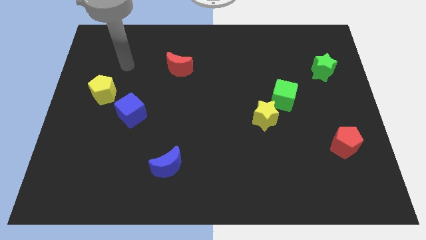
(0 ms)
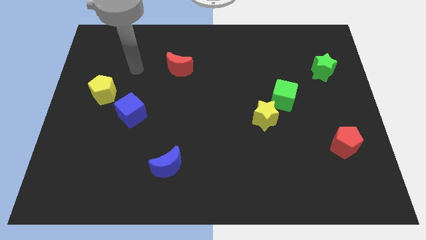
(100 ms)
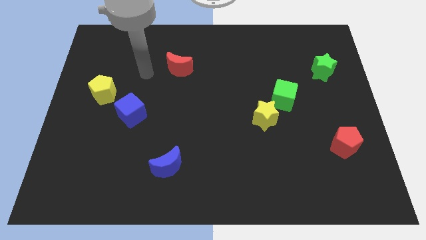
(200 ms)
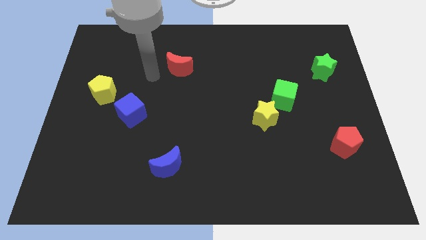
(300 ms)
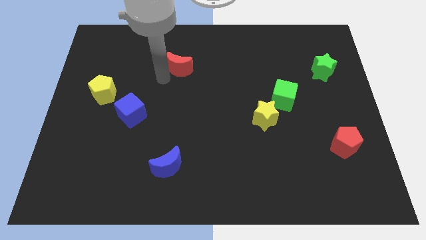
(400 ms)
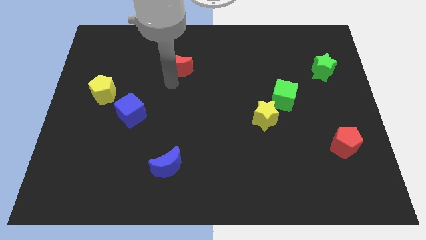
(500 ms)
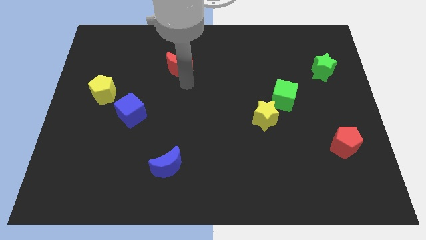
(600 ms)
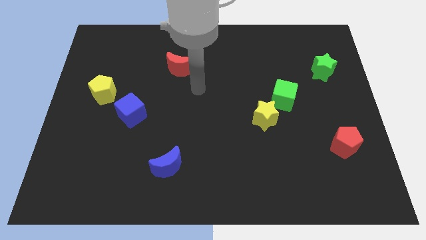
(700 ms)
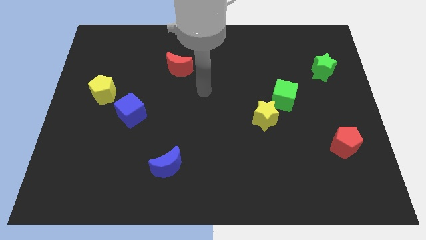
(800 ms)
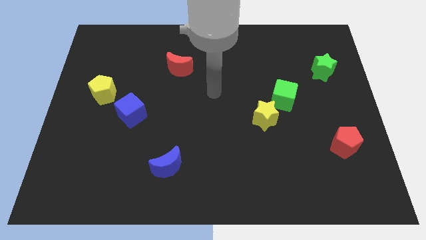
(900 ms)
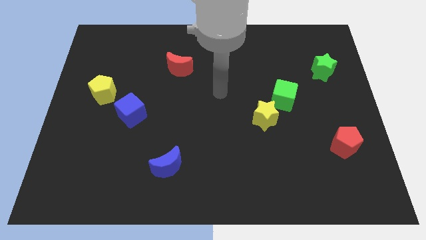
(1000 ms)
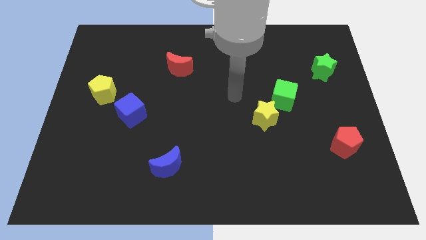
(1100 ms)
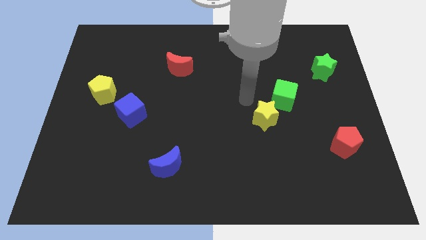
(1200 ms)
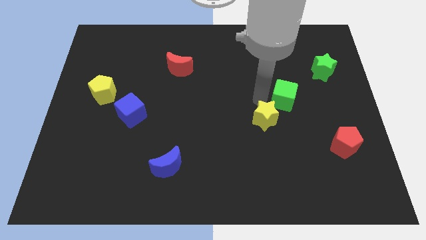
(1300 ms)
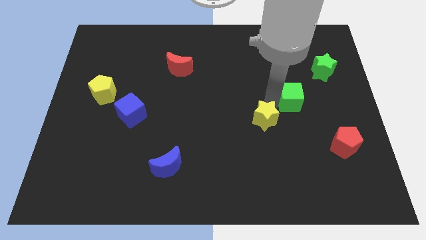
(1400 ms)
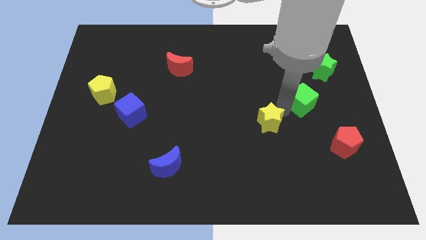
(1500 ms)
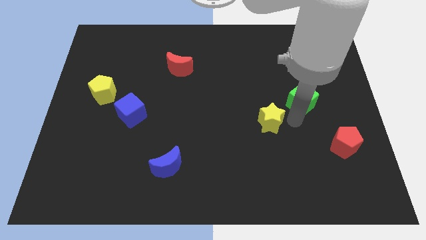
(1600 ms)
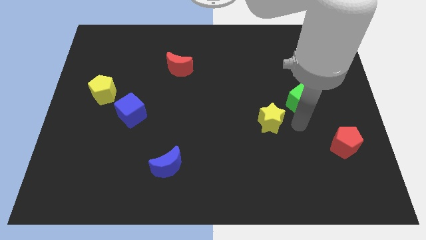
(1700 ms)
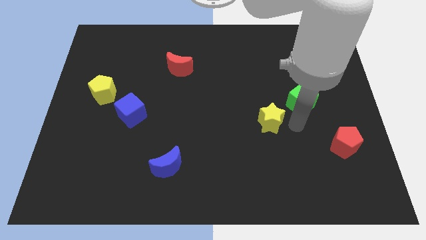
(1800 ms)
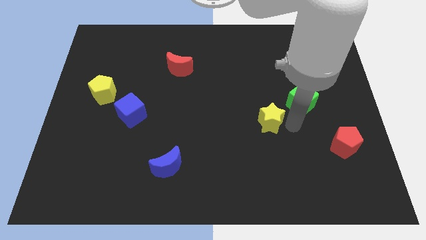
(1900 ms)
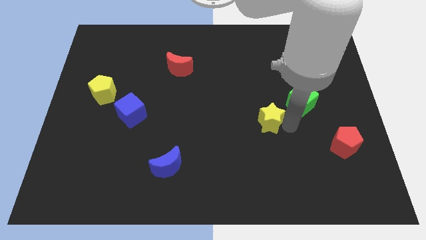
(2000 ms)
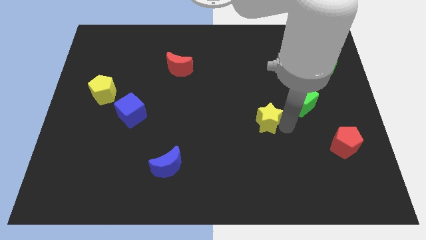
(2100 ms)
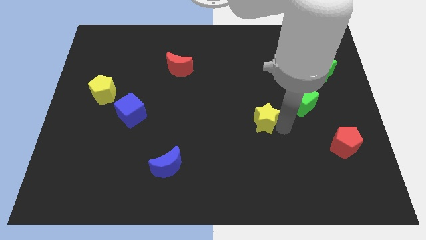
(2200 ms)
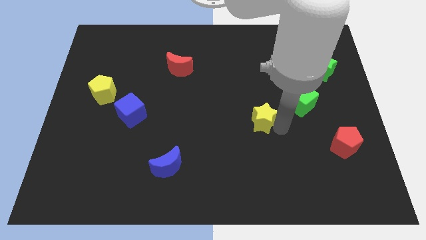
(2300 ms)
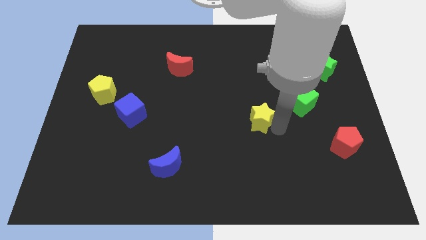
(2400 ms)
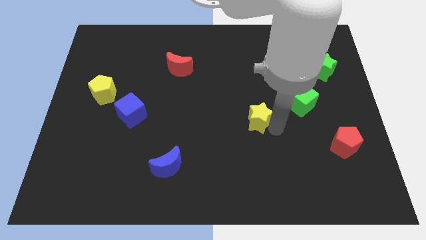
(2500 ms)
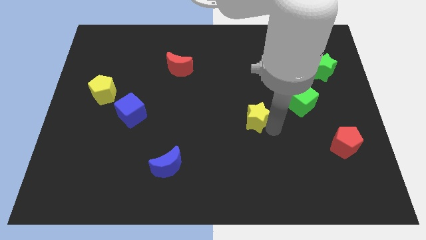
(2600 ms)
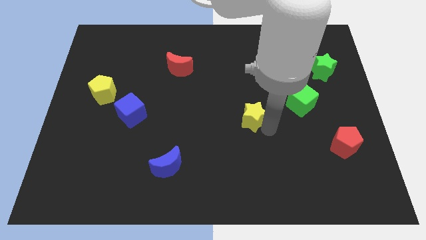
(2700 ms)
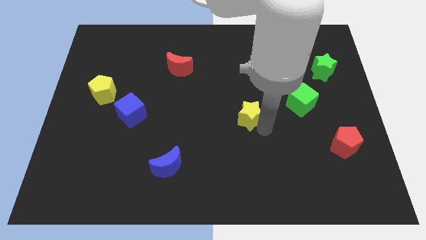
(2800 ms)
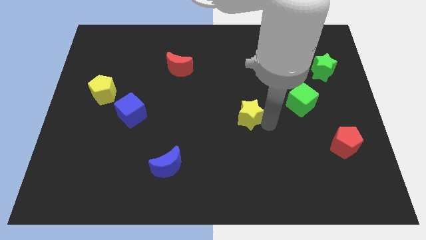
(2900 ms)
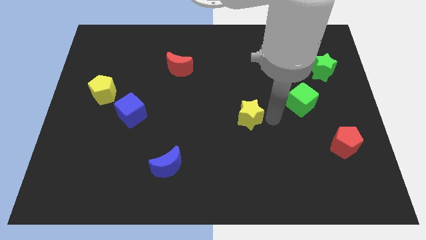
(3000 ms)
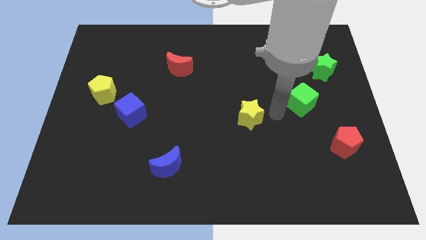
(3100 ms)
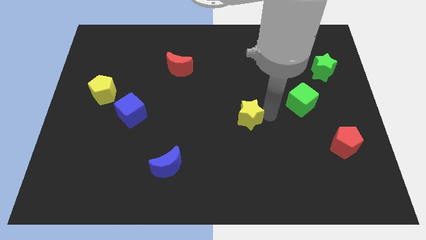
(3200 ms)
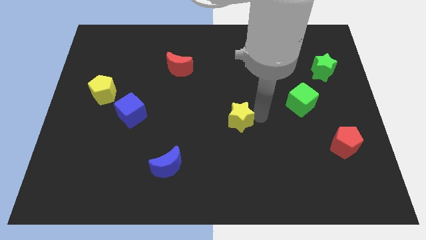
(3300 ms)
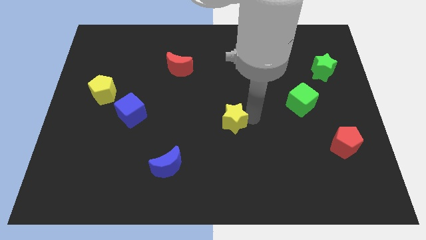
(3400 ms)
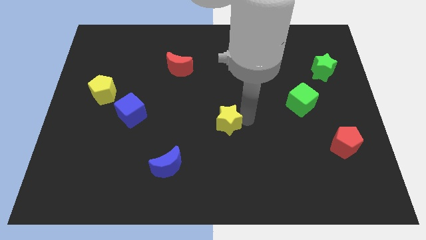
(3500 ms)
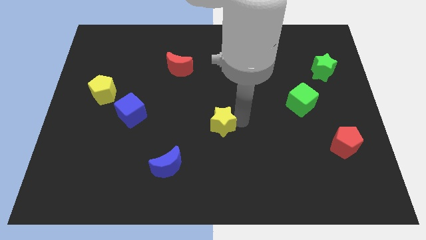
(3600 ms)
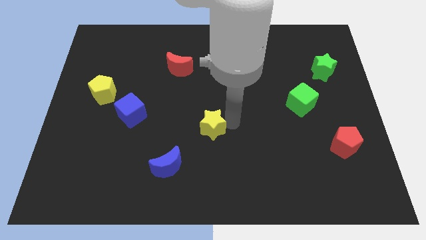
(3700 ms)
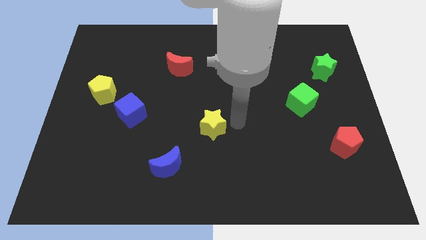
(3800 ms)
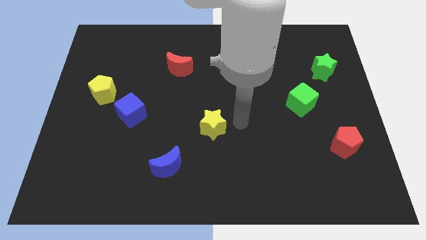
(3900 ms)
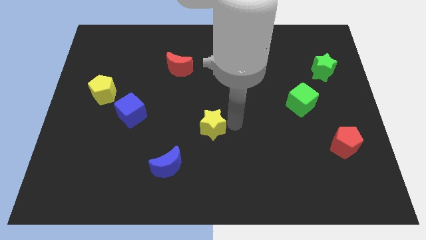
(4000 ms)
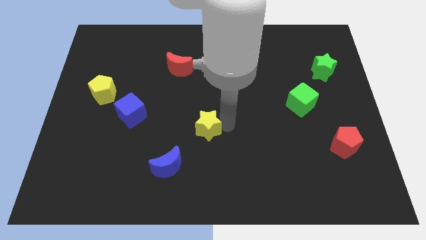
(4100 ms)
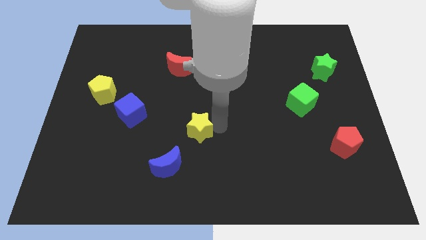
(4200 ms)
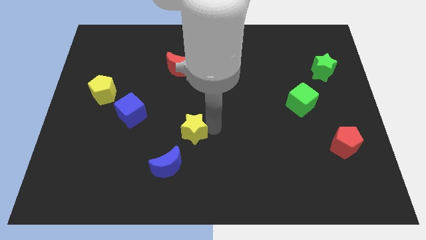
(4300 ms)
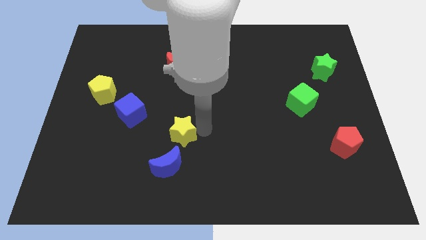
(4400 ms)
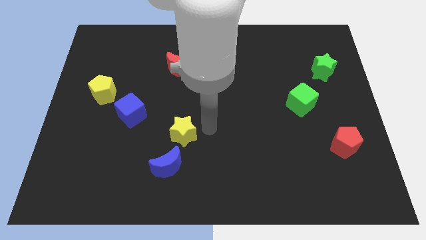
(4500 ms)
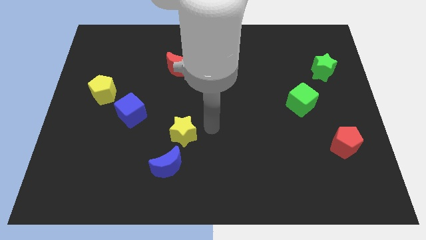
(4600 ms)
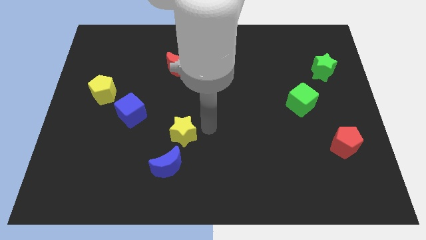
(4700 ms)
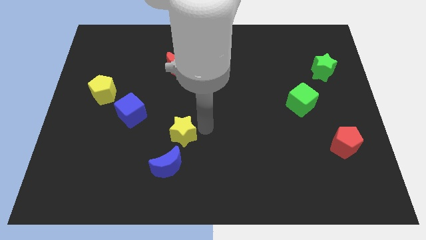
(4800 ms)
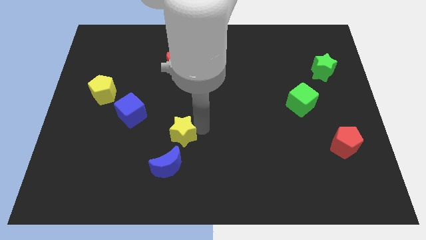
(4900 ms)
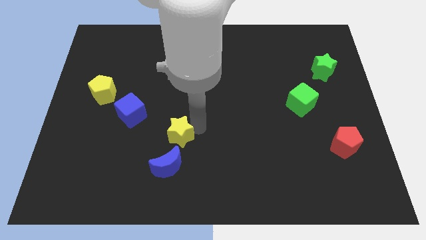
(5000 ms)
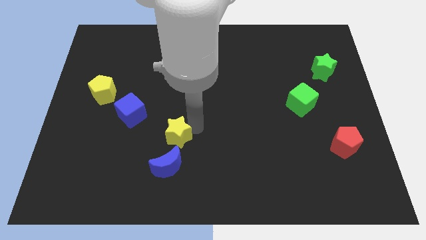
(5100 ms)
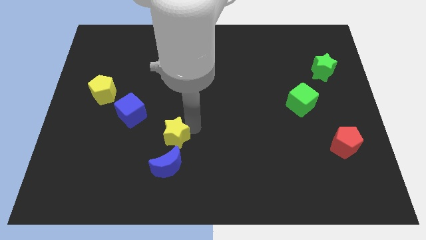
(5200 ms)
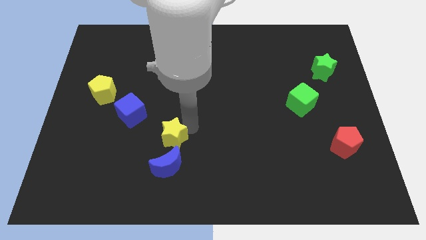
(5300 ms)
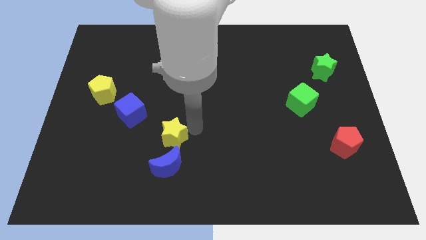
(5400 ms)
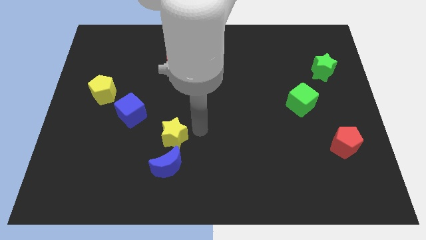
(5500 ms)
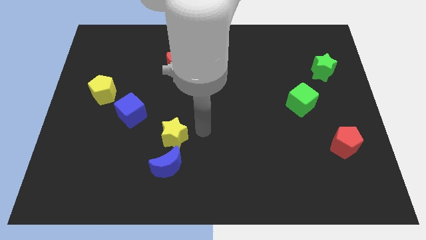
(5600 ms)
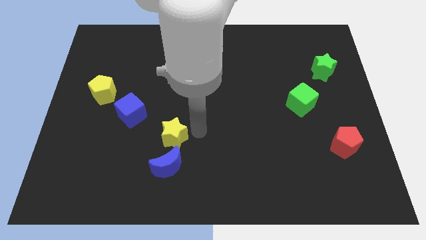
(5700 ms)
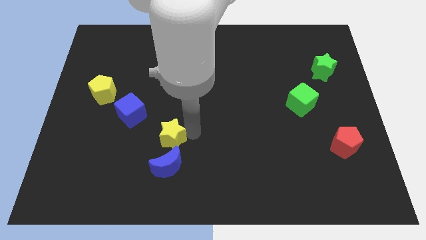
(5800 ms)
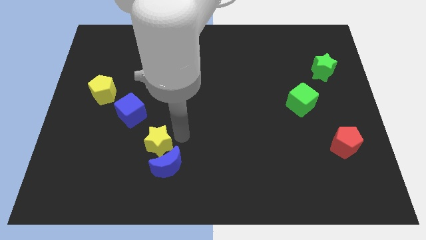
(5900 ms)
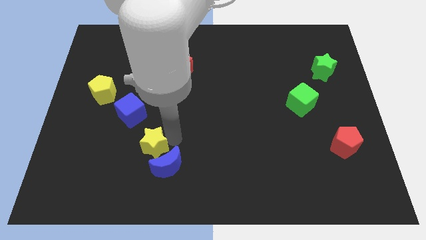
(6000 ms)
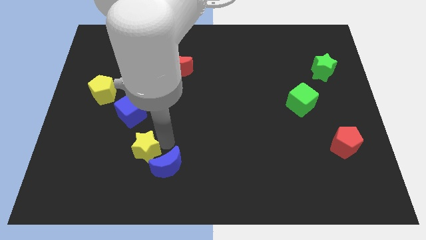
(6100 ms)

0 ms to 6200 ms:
slide the yellow star to the bottom of the blue cube

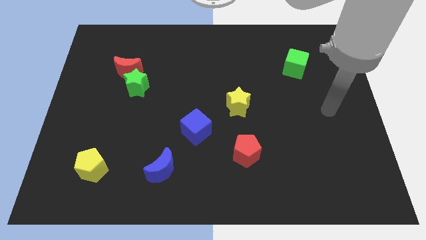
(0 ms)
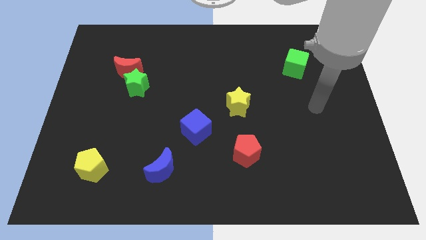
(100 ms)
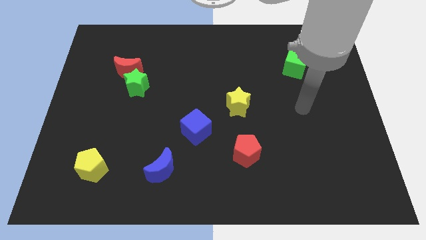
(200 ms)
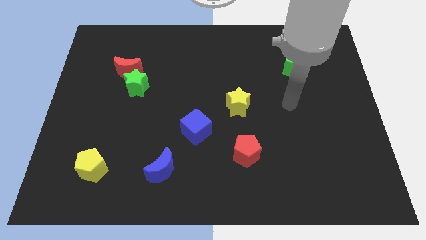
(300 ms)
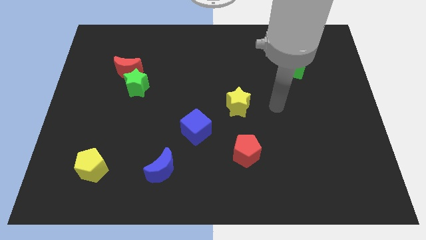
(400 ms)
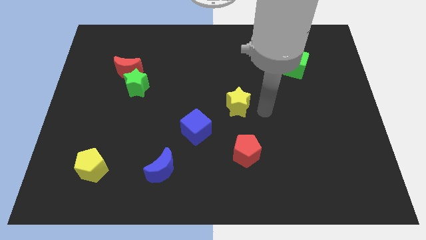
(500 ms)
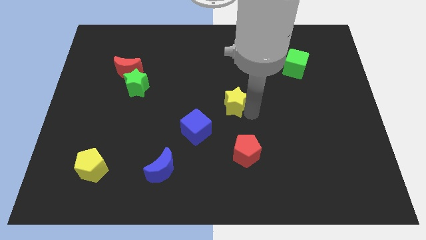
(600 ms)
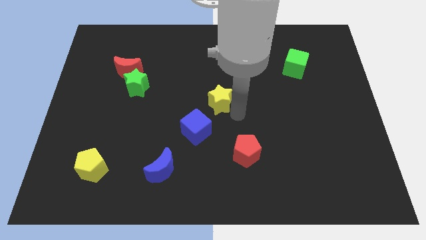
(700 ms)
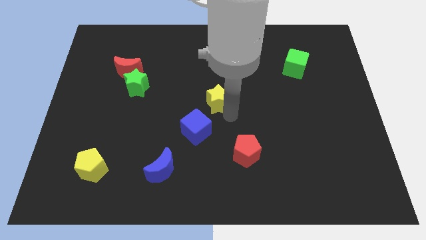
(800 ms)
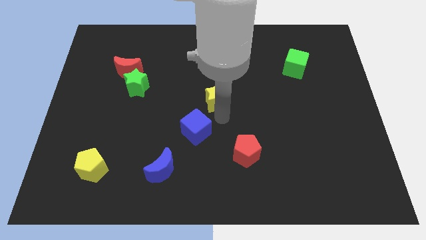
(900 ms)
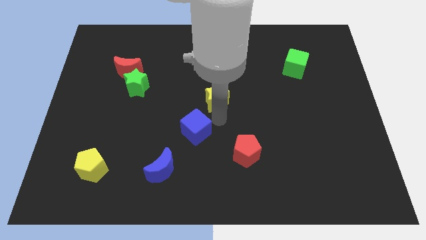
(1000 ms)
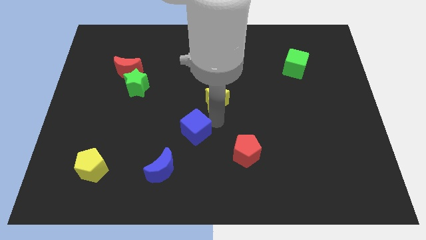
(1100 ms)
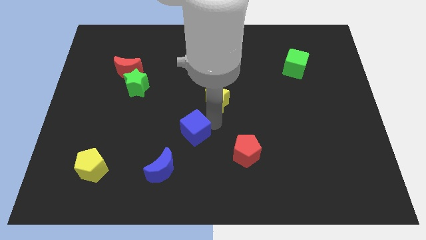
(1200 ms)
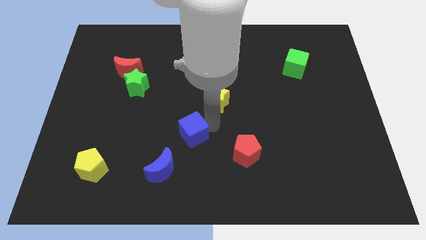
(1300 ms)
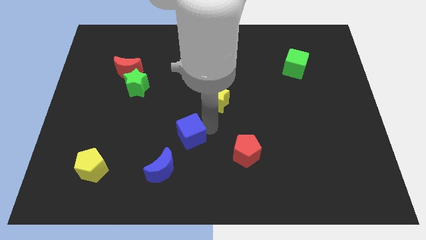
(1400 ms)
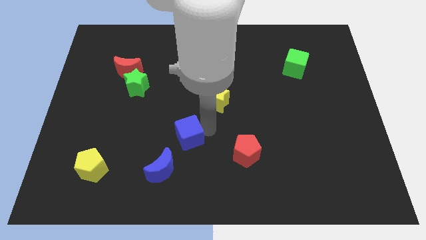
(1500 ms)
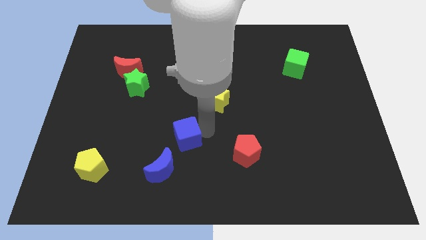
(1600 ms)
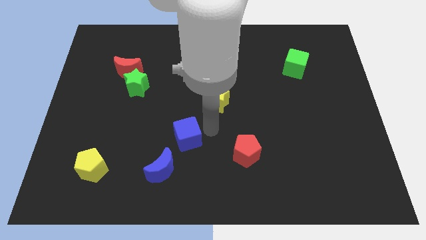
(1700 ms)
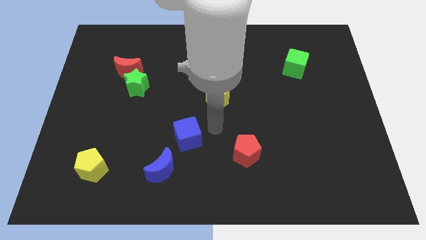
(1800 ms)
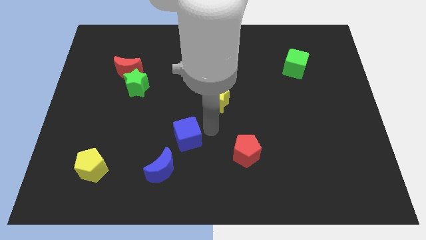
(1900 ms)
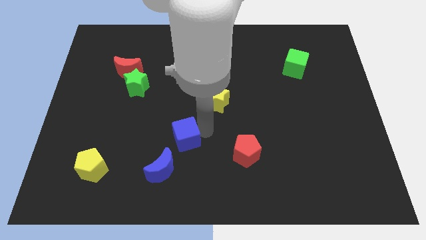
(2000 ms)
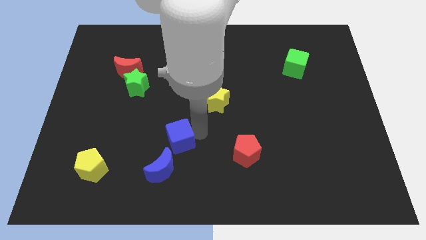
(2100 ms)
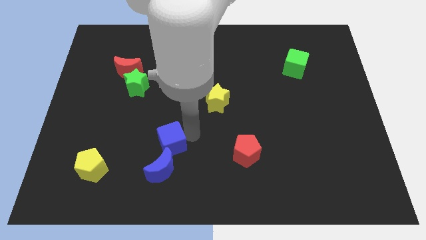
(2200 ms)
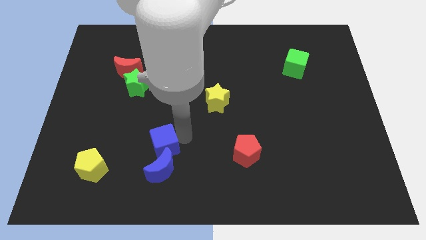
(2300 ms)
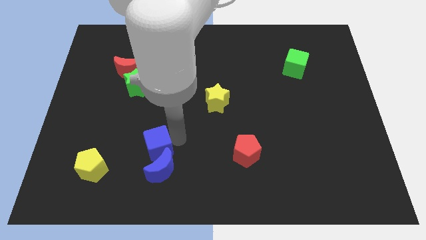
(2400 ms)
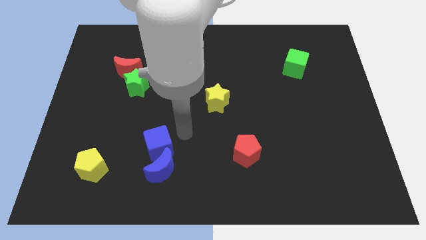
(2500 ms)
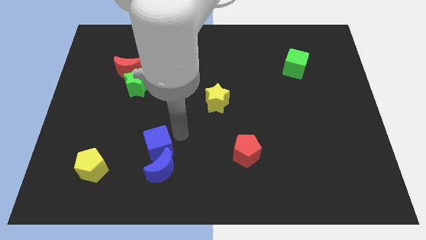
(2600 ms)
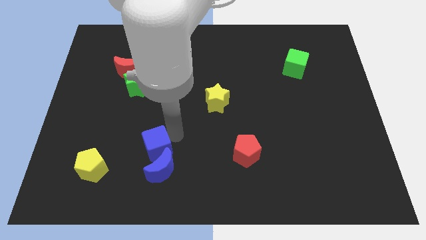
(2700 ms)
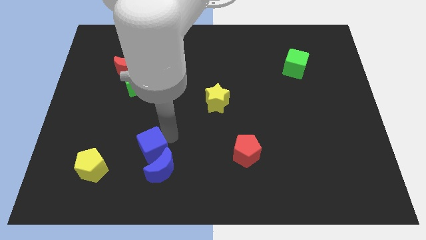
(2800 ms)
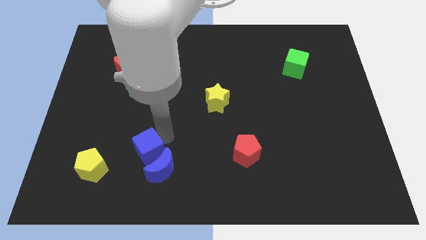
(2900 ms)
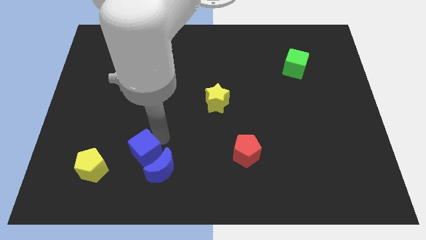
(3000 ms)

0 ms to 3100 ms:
move the blue cube to the left side of the blue moon

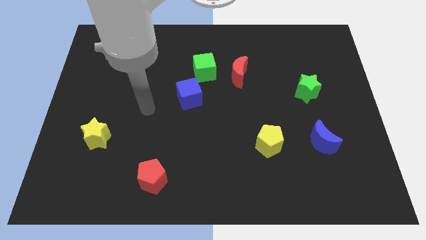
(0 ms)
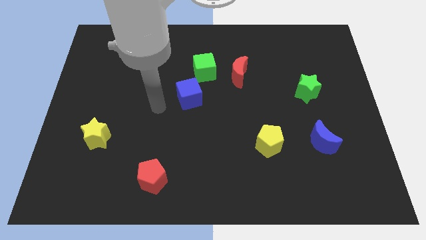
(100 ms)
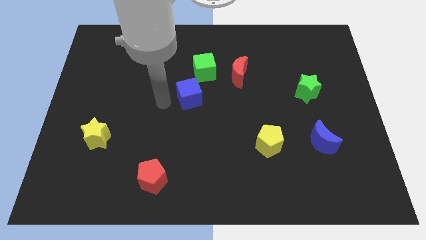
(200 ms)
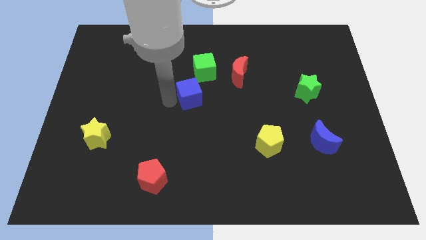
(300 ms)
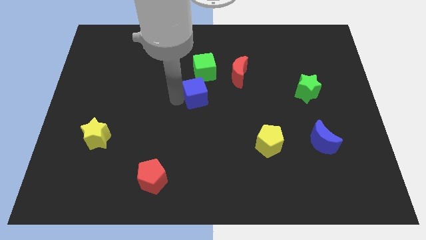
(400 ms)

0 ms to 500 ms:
put the blue cube diagonally down and to the left of the red moon
